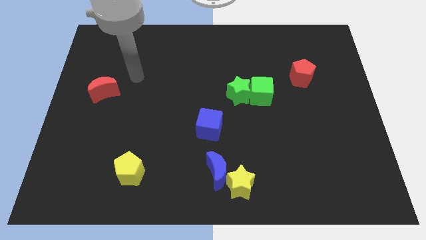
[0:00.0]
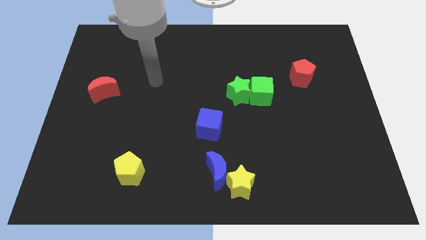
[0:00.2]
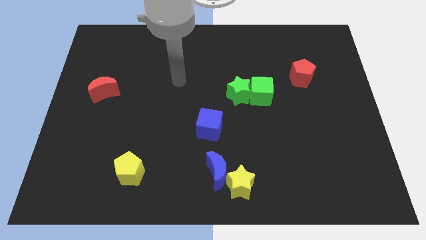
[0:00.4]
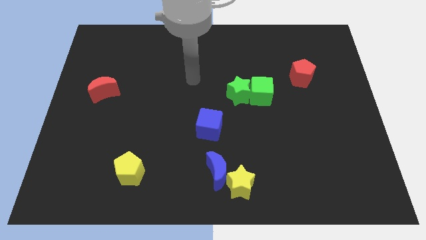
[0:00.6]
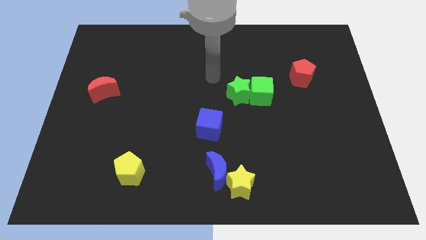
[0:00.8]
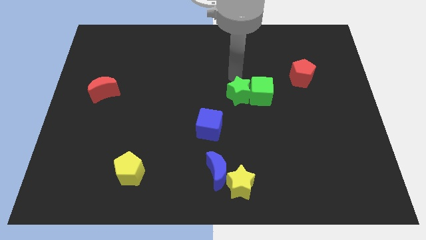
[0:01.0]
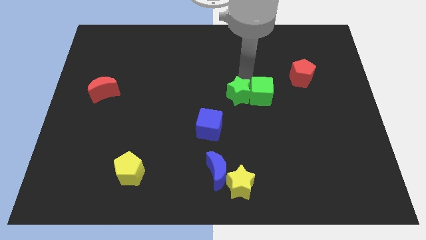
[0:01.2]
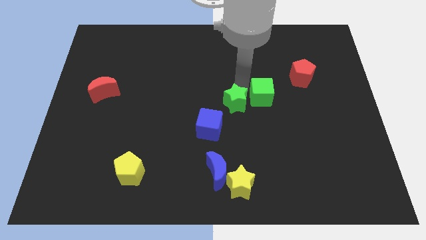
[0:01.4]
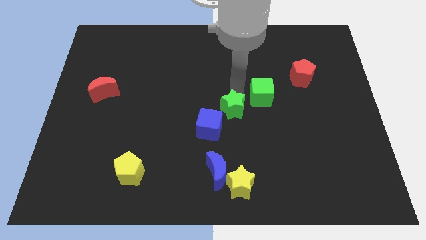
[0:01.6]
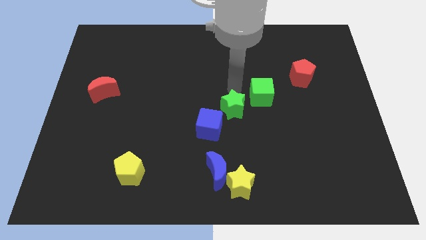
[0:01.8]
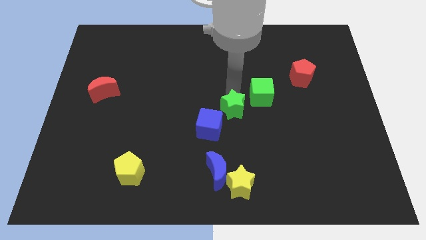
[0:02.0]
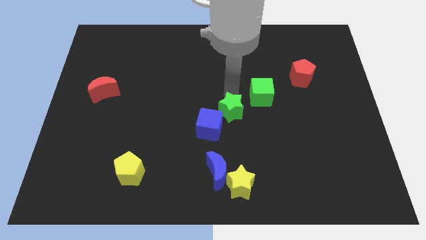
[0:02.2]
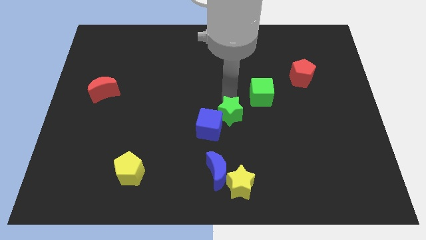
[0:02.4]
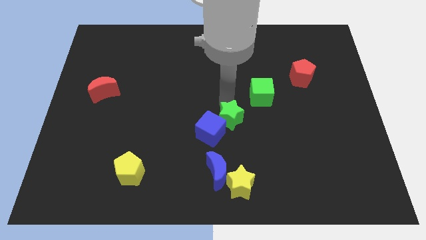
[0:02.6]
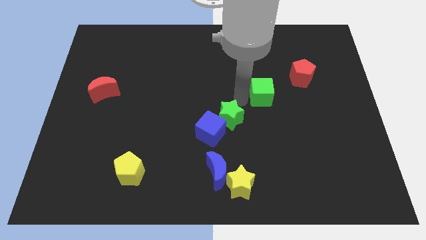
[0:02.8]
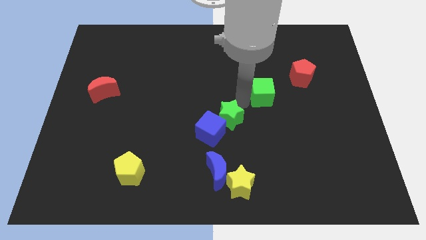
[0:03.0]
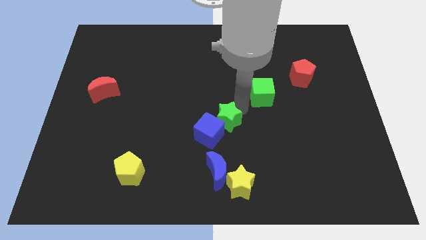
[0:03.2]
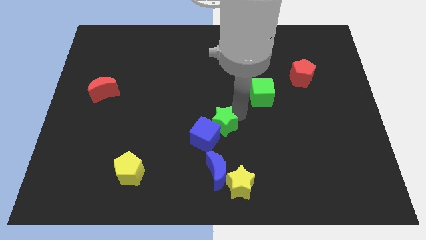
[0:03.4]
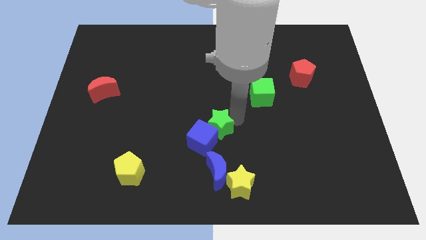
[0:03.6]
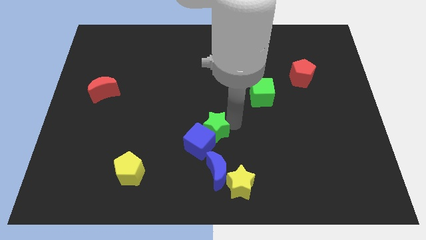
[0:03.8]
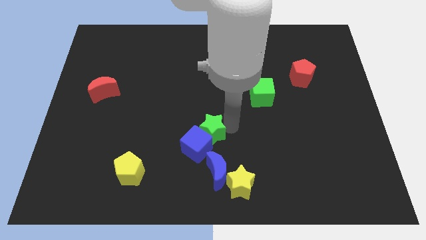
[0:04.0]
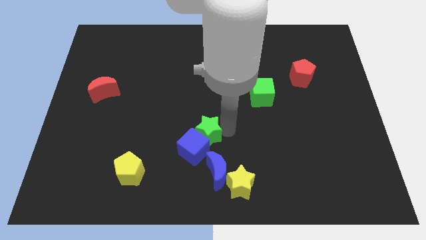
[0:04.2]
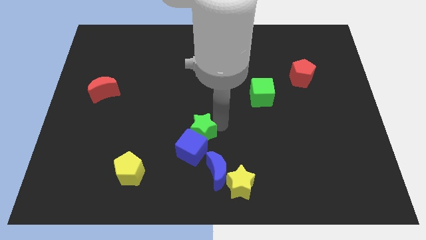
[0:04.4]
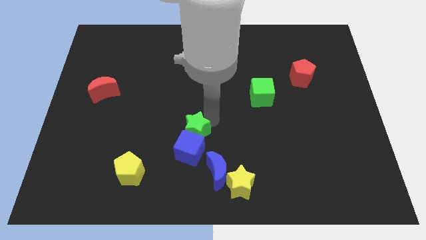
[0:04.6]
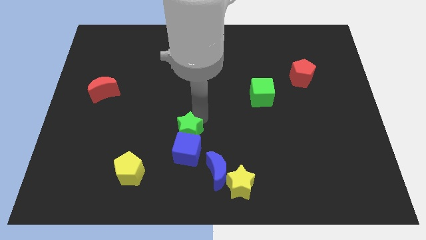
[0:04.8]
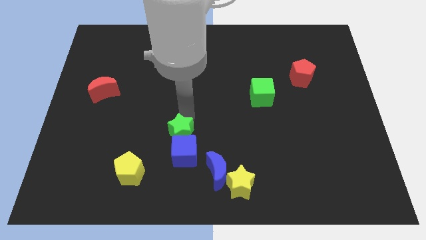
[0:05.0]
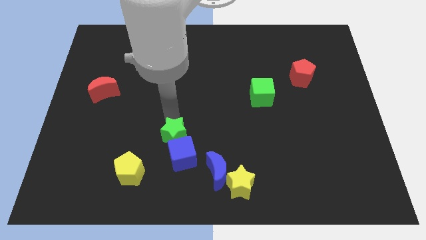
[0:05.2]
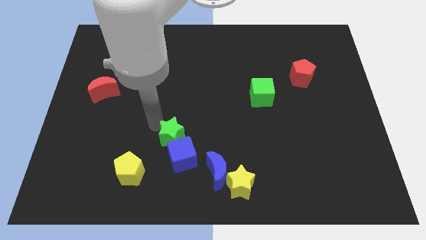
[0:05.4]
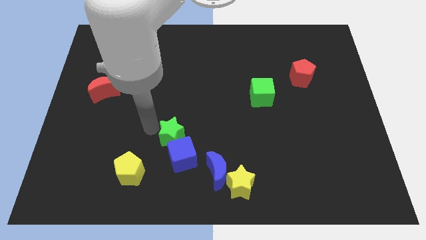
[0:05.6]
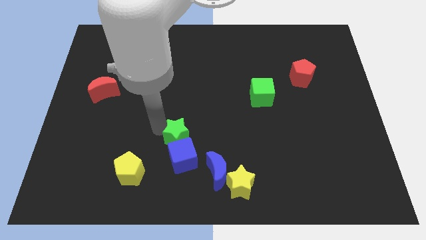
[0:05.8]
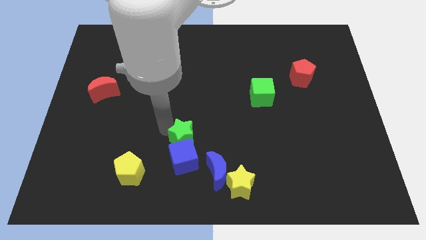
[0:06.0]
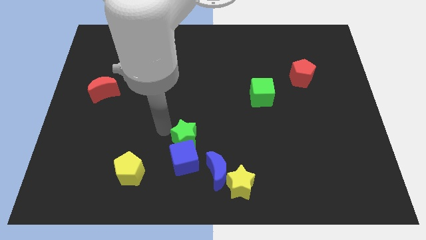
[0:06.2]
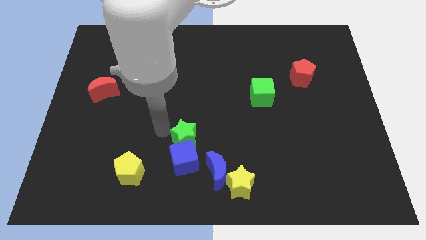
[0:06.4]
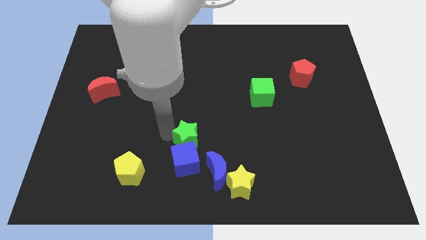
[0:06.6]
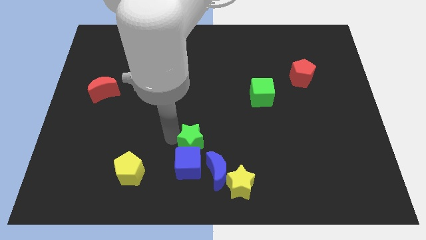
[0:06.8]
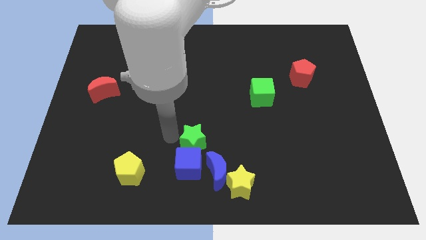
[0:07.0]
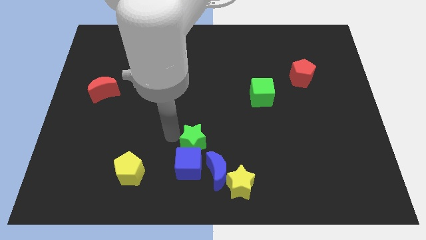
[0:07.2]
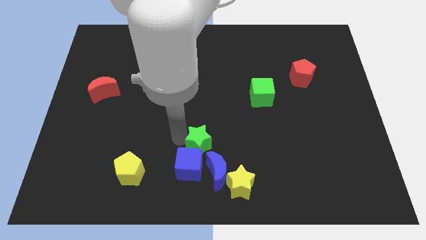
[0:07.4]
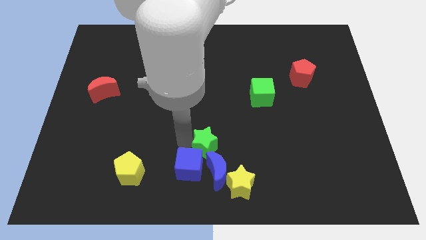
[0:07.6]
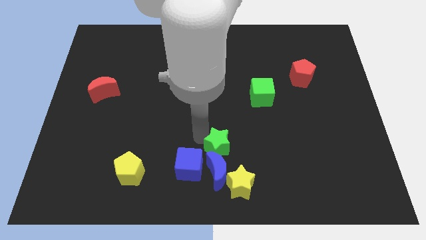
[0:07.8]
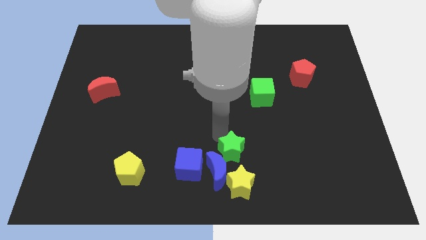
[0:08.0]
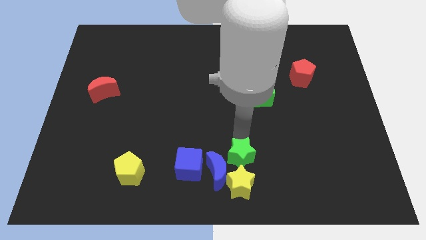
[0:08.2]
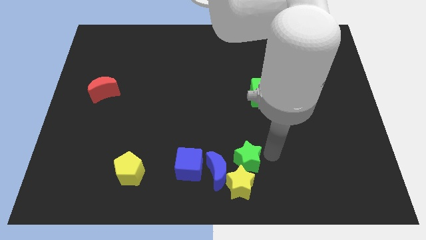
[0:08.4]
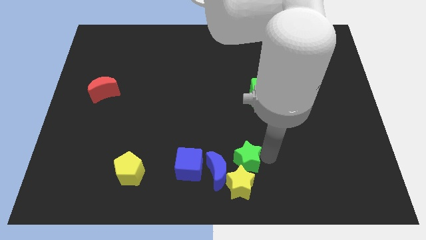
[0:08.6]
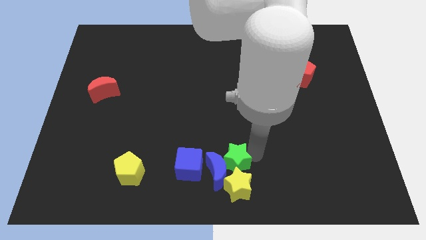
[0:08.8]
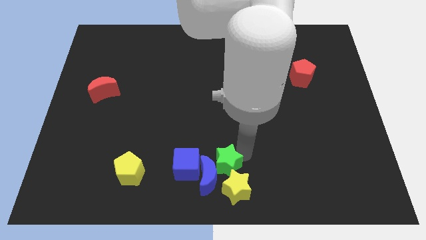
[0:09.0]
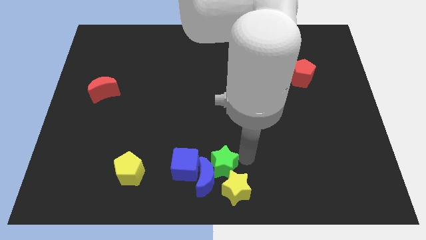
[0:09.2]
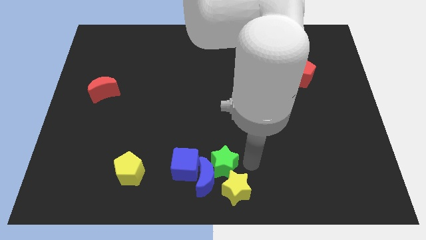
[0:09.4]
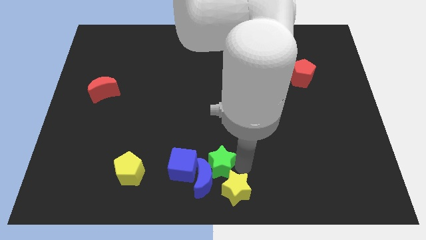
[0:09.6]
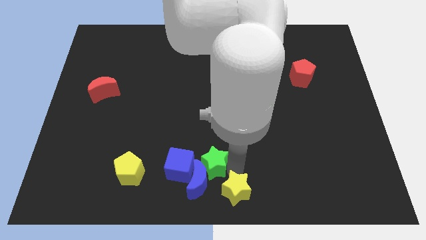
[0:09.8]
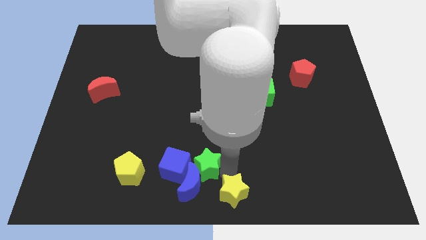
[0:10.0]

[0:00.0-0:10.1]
put the green star just right of the yellow pentagon

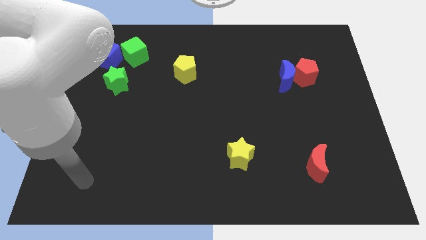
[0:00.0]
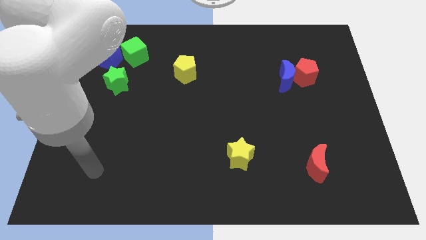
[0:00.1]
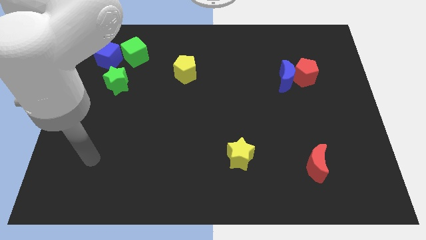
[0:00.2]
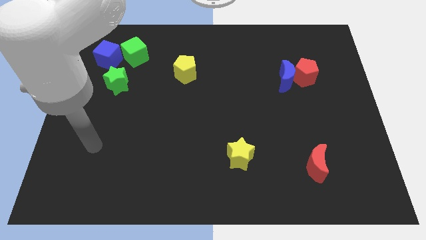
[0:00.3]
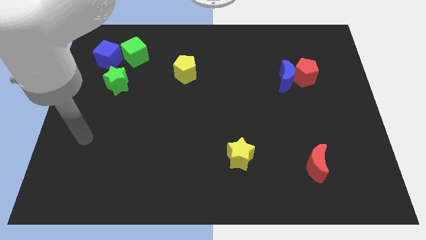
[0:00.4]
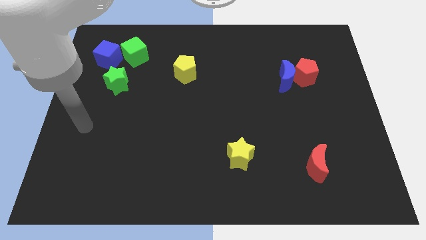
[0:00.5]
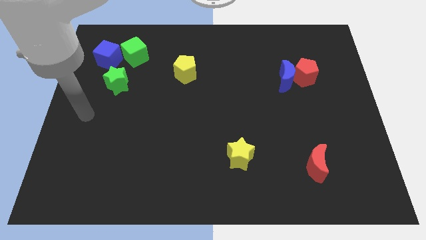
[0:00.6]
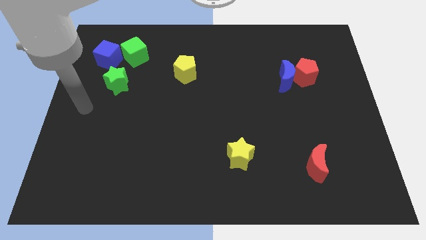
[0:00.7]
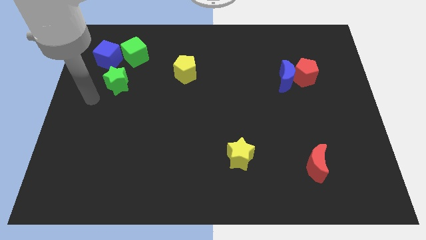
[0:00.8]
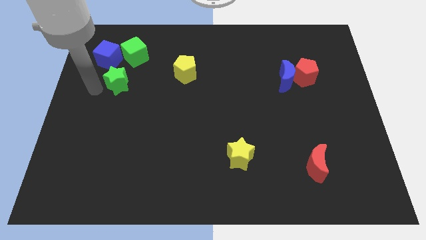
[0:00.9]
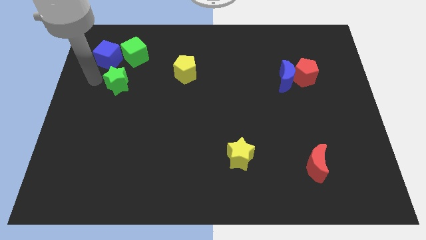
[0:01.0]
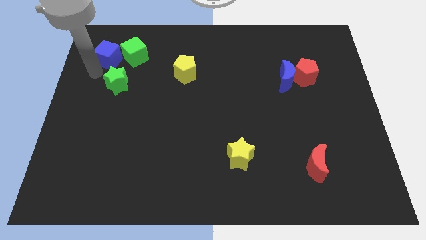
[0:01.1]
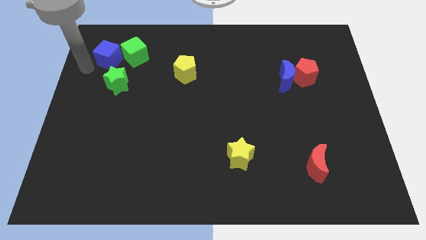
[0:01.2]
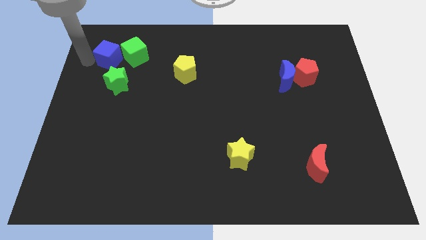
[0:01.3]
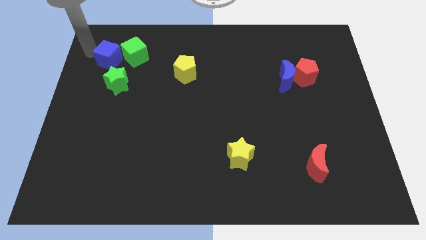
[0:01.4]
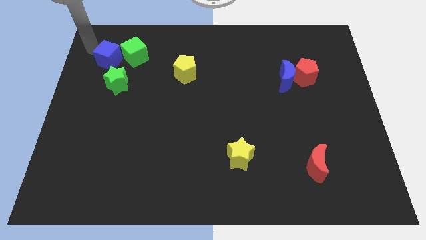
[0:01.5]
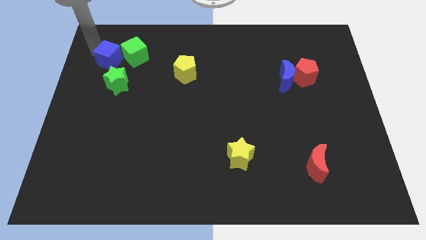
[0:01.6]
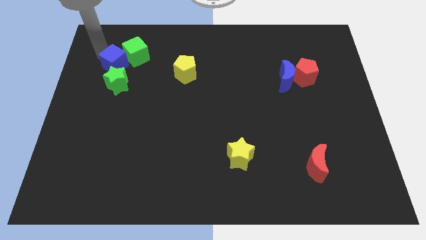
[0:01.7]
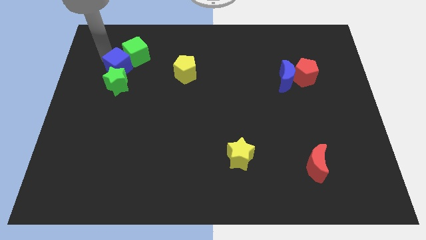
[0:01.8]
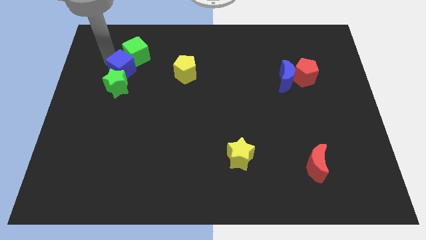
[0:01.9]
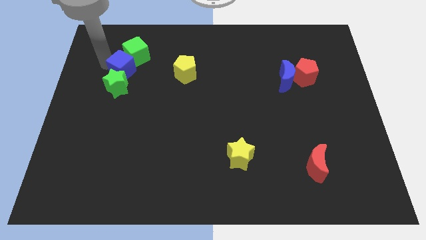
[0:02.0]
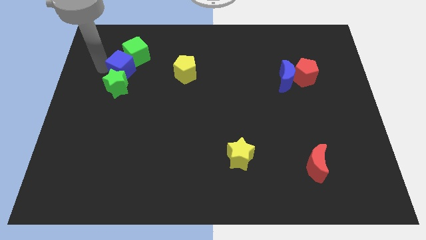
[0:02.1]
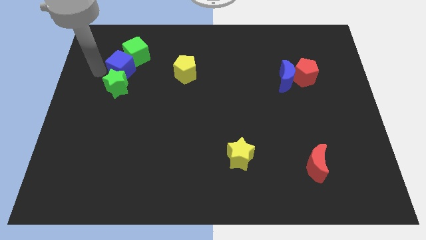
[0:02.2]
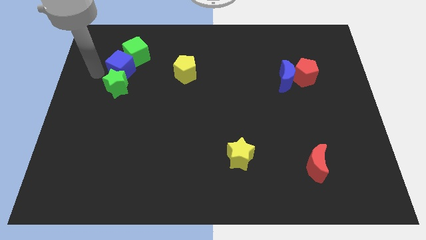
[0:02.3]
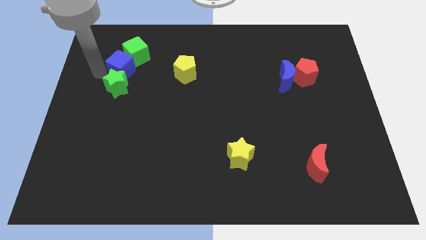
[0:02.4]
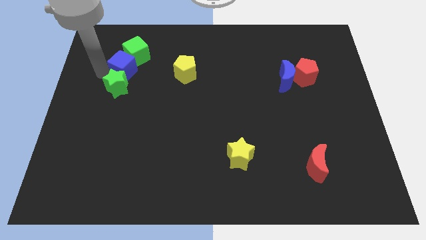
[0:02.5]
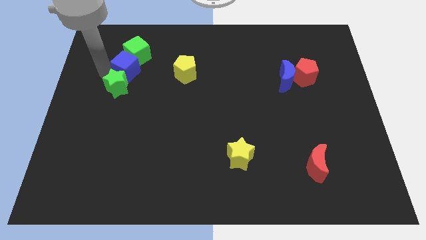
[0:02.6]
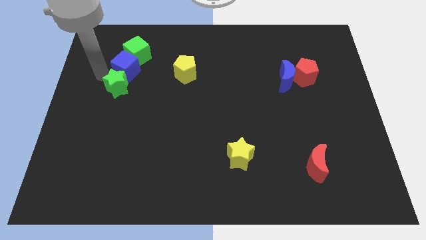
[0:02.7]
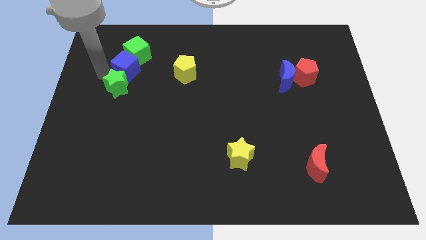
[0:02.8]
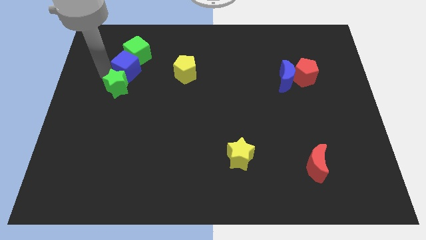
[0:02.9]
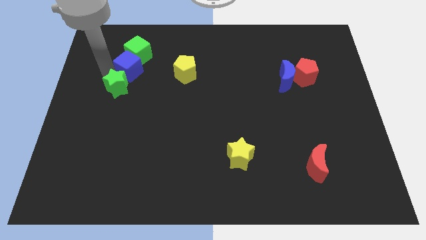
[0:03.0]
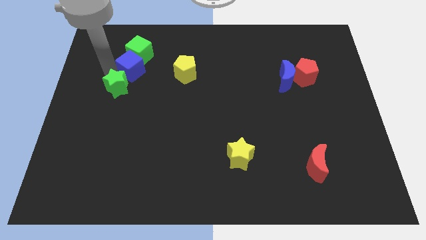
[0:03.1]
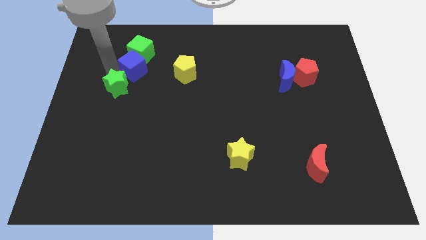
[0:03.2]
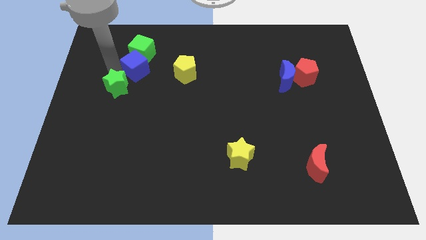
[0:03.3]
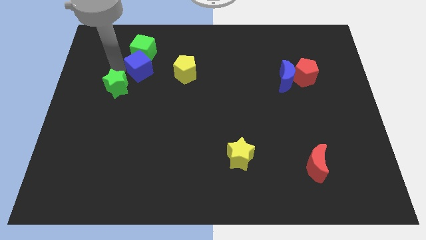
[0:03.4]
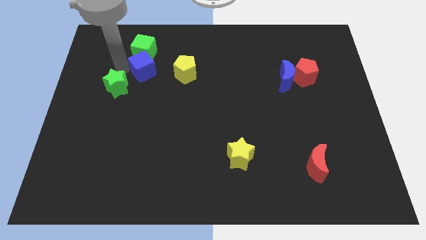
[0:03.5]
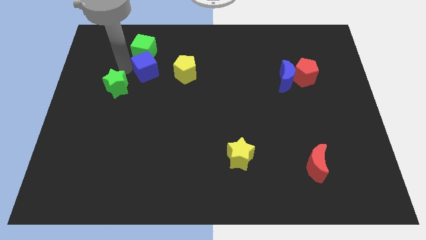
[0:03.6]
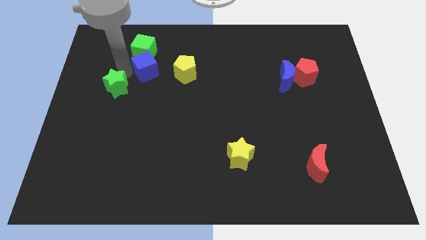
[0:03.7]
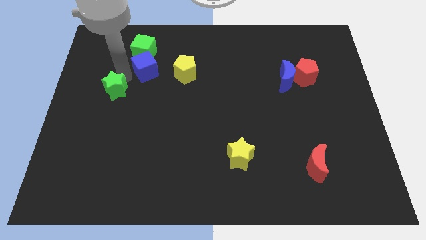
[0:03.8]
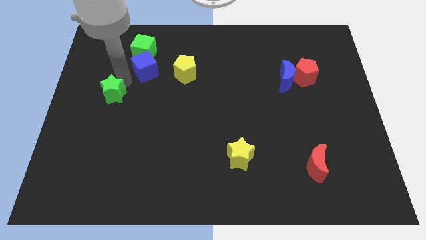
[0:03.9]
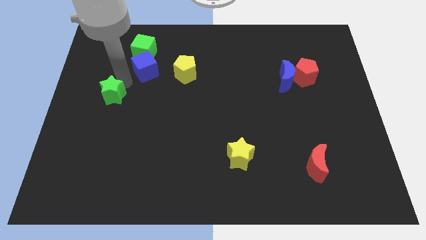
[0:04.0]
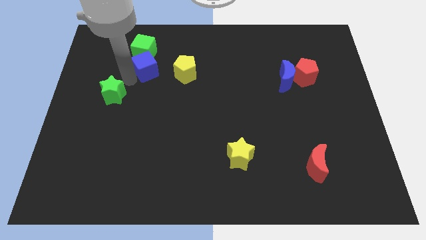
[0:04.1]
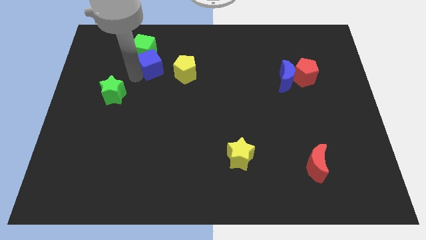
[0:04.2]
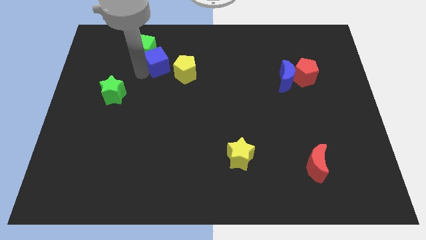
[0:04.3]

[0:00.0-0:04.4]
move the blue cube to the top left side of the yellow pentagon
